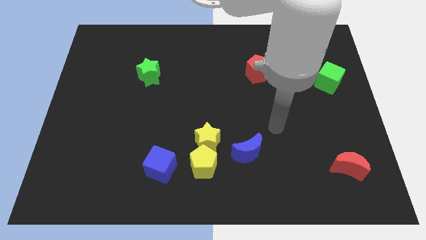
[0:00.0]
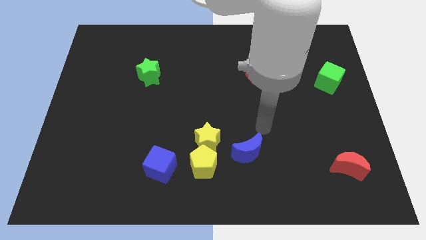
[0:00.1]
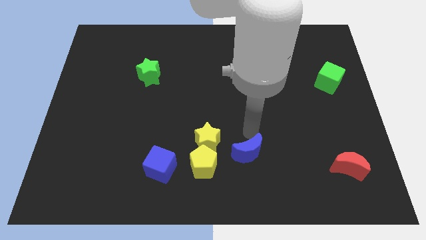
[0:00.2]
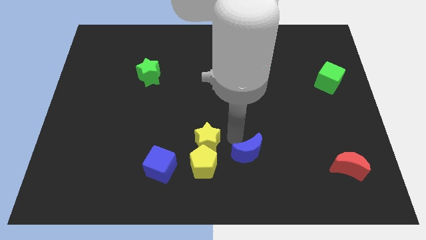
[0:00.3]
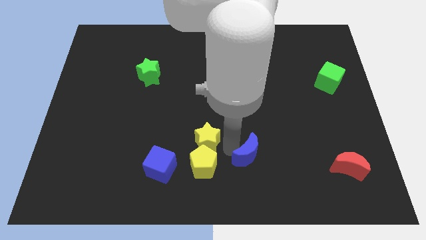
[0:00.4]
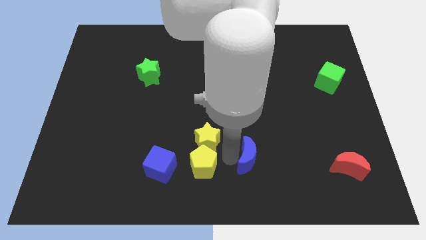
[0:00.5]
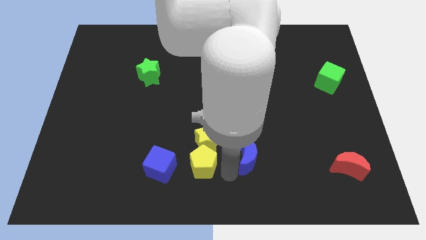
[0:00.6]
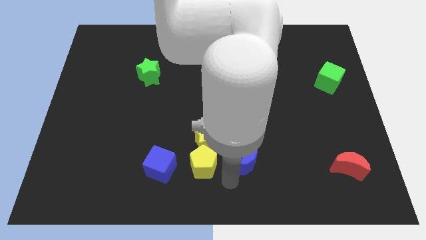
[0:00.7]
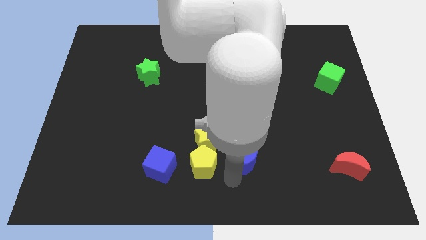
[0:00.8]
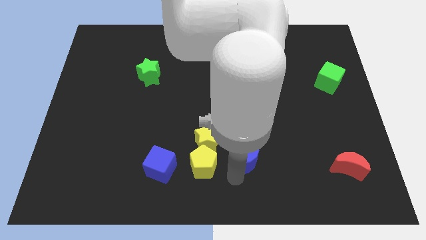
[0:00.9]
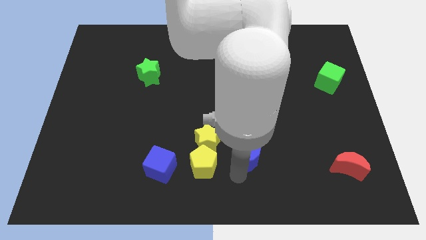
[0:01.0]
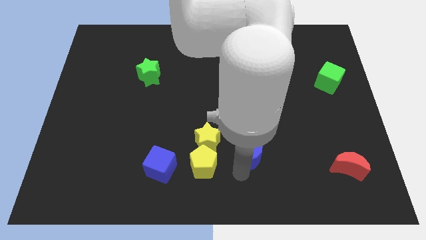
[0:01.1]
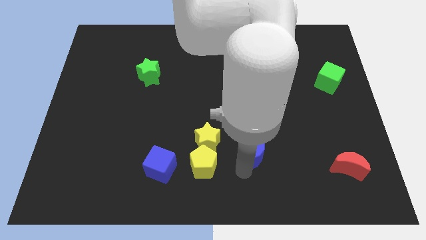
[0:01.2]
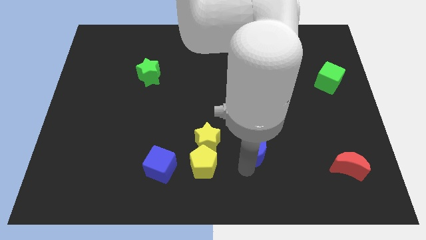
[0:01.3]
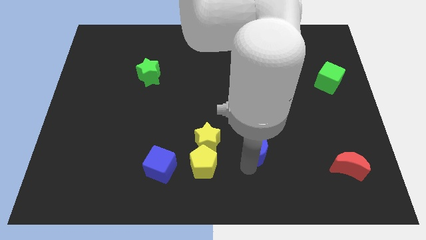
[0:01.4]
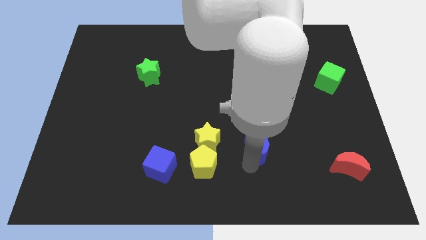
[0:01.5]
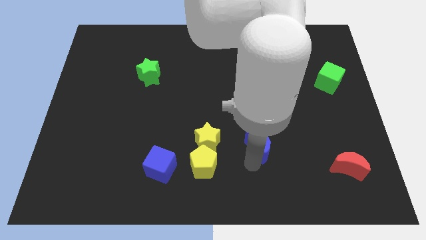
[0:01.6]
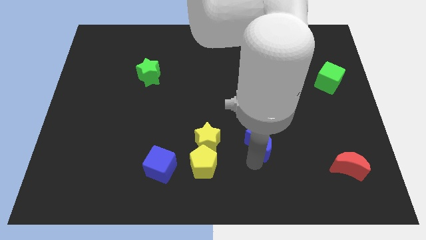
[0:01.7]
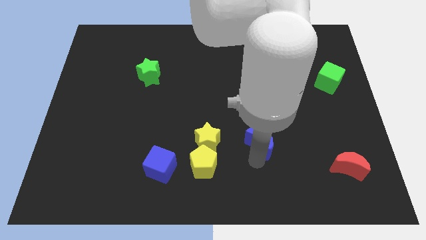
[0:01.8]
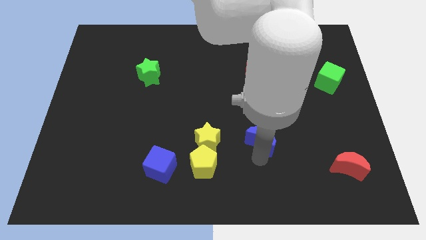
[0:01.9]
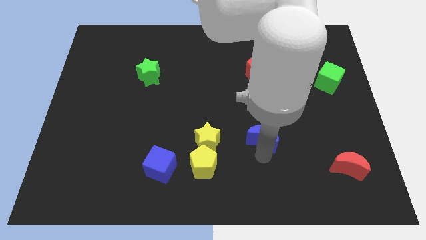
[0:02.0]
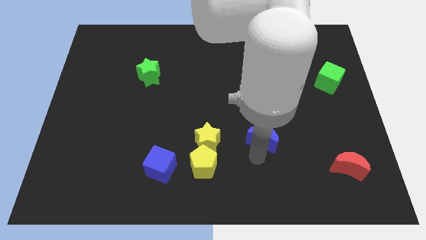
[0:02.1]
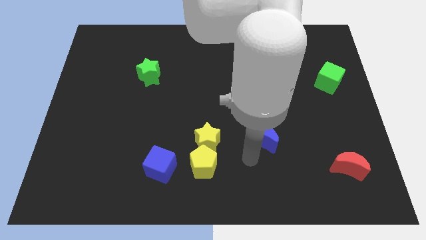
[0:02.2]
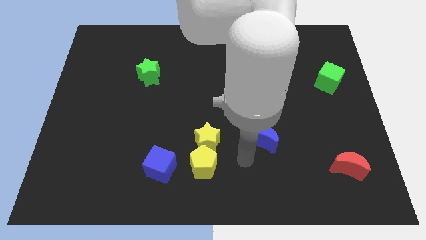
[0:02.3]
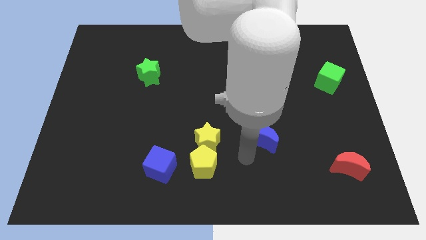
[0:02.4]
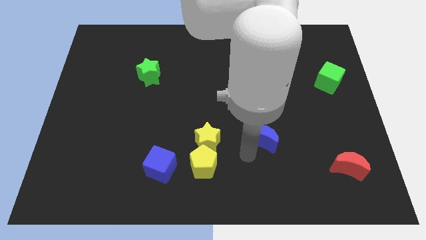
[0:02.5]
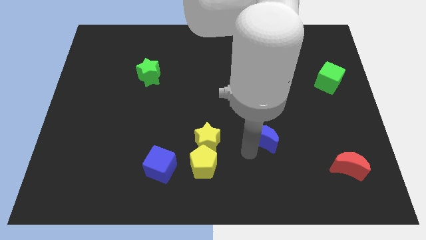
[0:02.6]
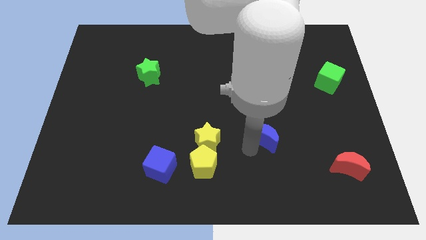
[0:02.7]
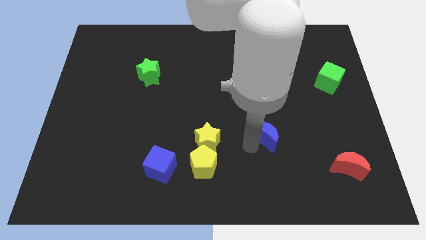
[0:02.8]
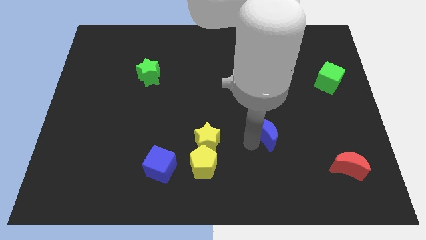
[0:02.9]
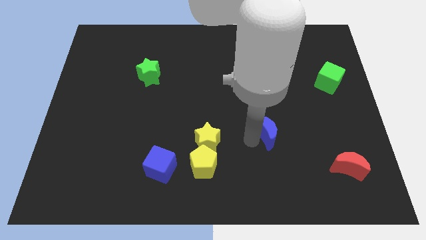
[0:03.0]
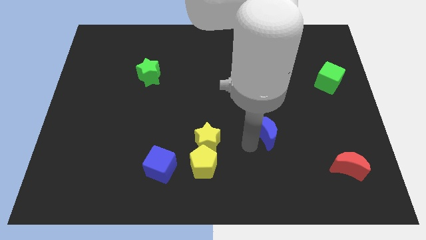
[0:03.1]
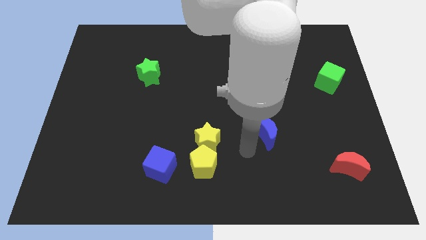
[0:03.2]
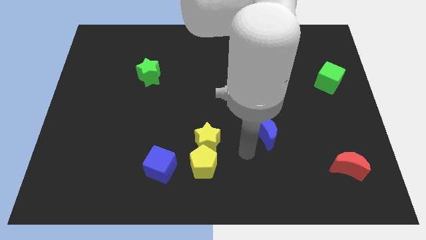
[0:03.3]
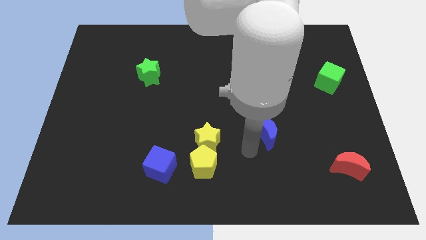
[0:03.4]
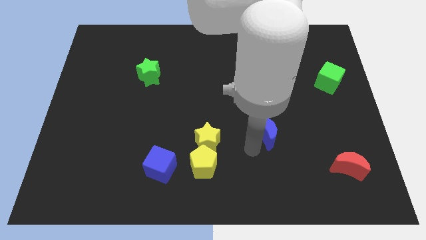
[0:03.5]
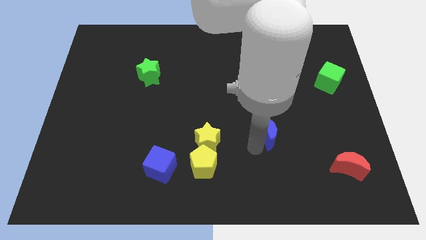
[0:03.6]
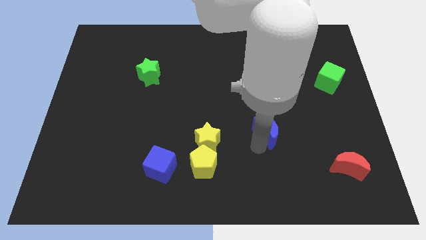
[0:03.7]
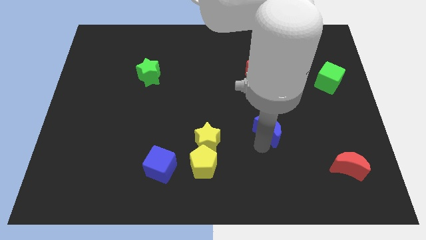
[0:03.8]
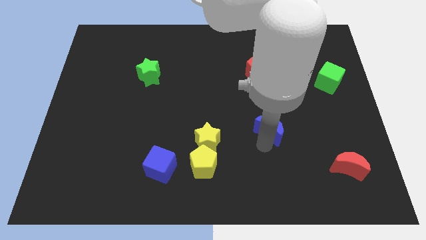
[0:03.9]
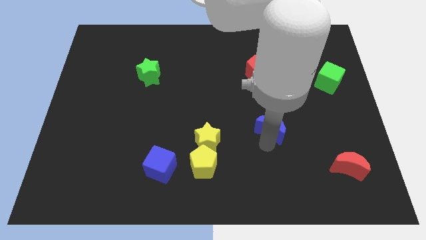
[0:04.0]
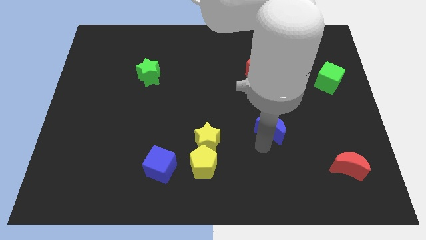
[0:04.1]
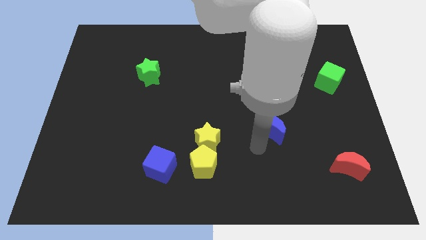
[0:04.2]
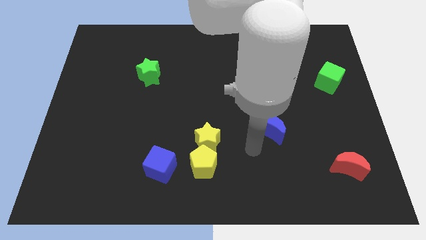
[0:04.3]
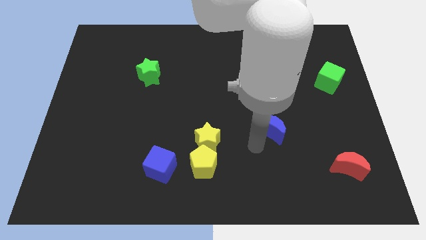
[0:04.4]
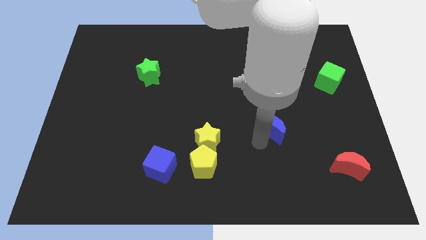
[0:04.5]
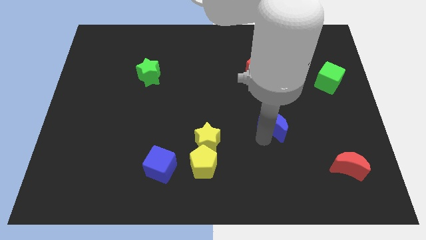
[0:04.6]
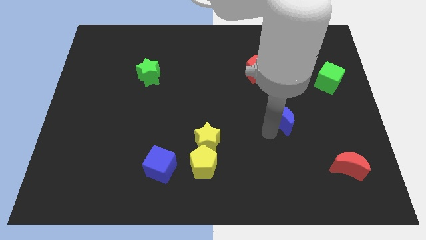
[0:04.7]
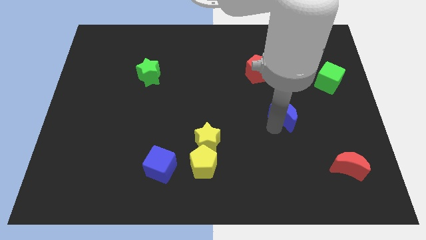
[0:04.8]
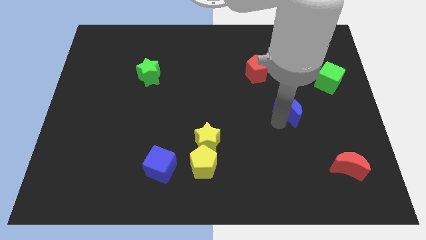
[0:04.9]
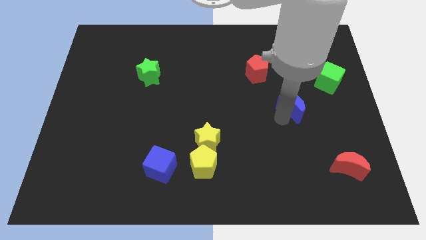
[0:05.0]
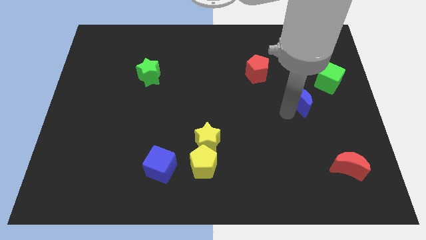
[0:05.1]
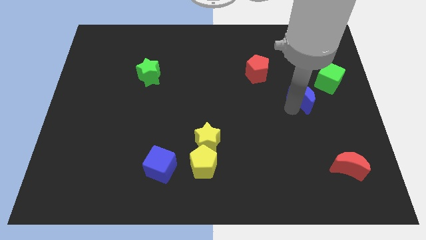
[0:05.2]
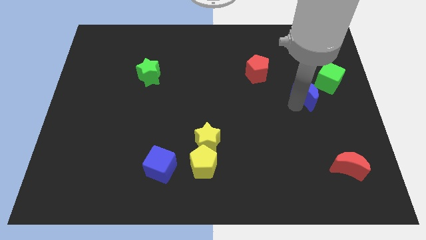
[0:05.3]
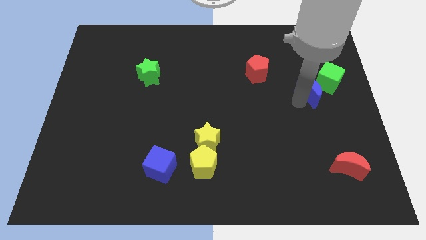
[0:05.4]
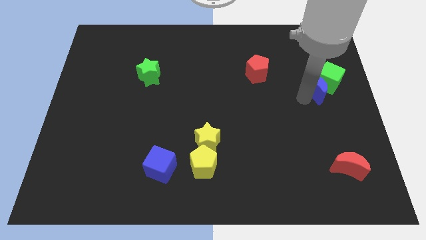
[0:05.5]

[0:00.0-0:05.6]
push the blue moon close to the green cube

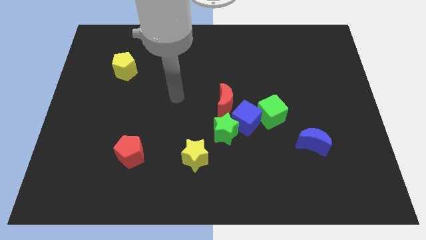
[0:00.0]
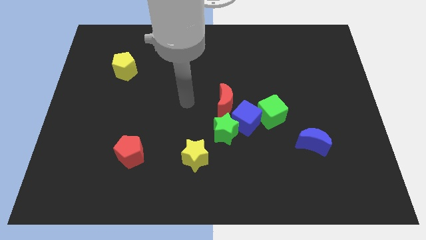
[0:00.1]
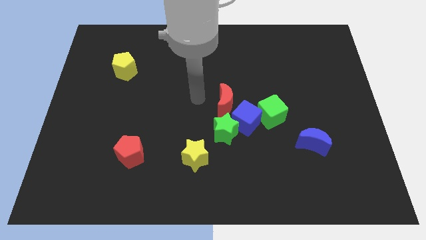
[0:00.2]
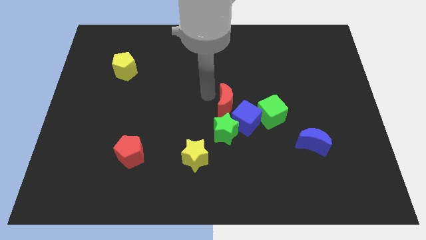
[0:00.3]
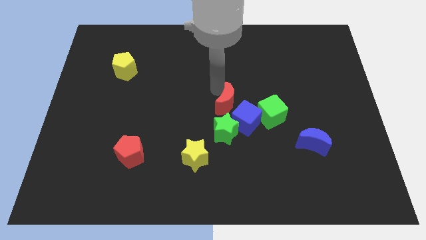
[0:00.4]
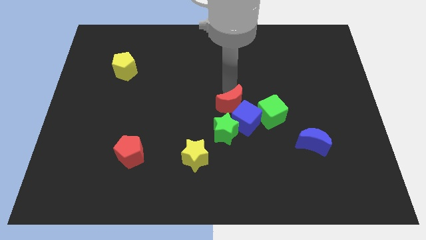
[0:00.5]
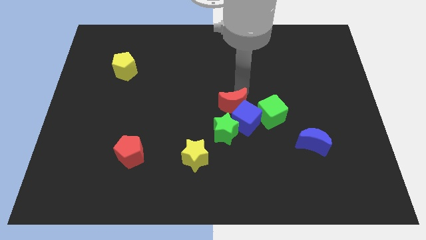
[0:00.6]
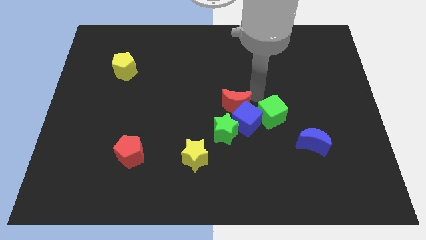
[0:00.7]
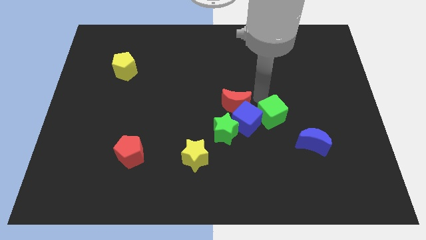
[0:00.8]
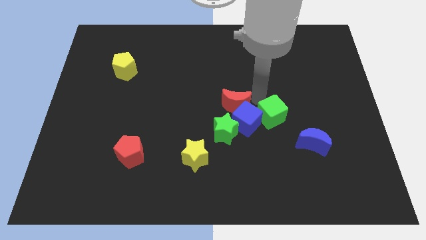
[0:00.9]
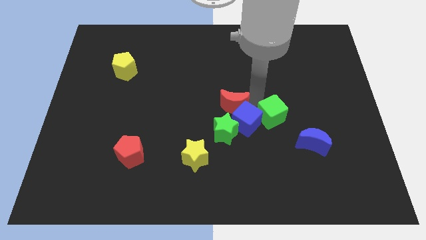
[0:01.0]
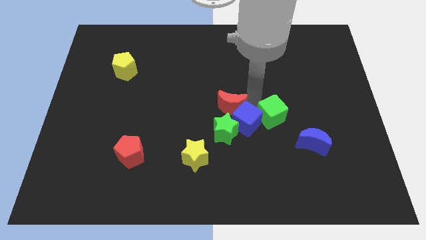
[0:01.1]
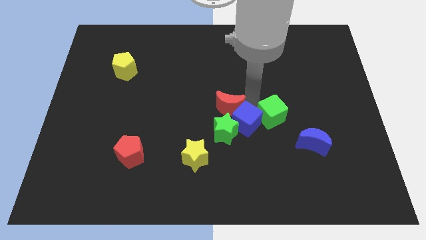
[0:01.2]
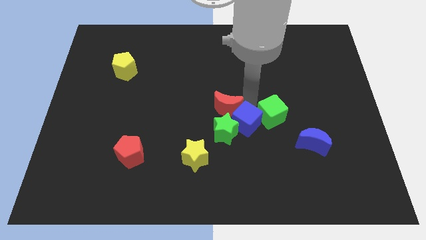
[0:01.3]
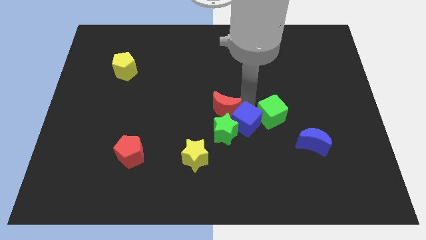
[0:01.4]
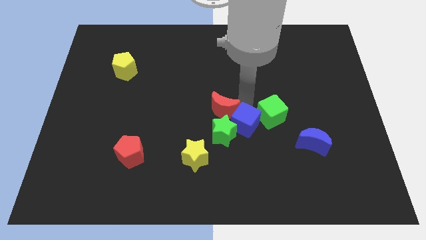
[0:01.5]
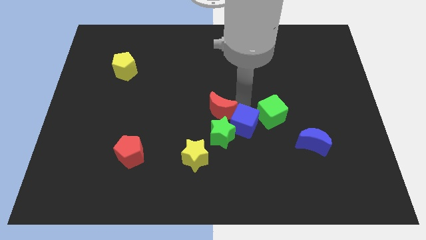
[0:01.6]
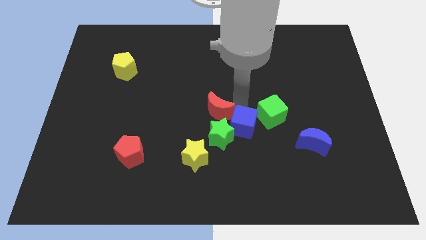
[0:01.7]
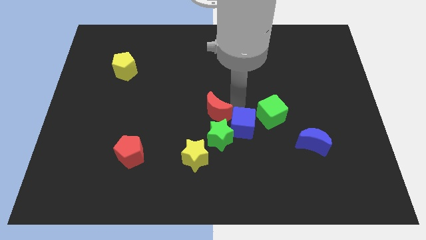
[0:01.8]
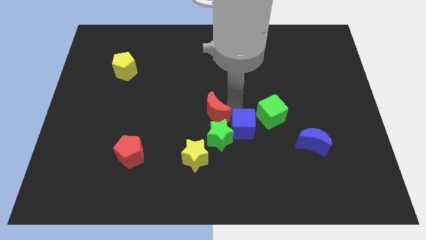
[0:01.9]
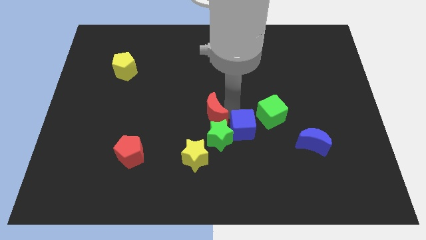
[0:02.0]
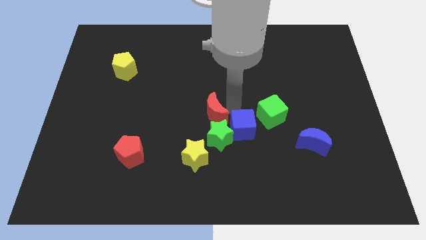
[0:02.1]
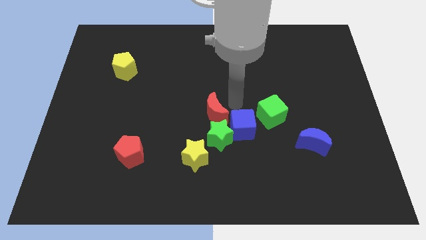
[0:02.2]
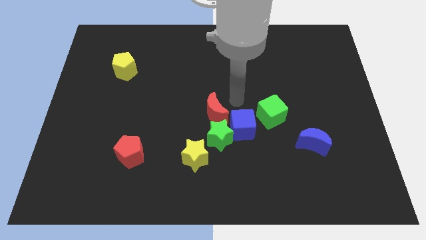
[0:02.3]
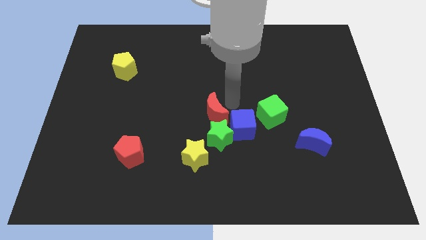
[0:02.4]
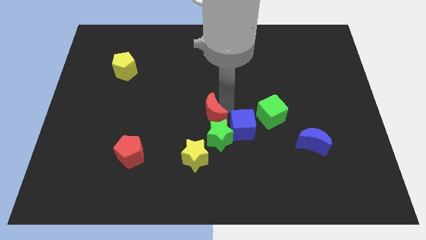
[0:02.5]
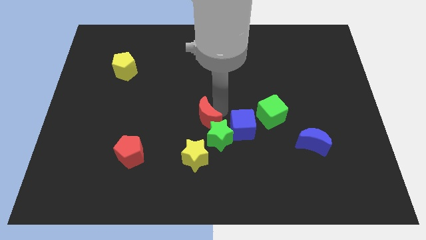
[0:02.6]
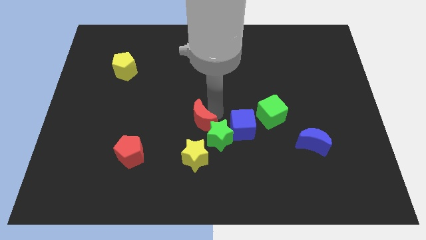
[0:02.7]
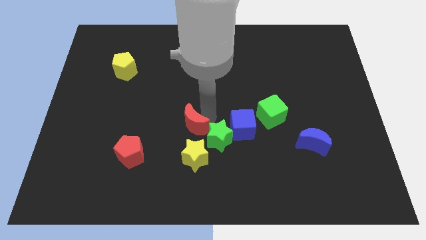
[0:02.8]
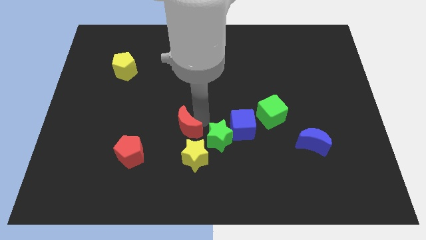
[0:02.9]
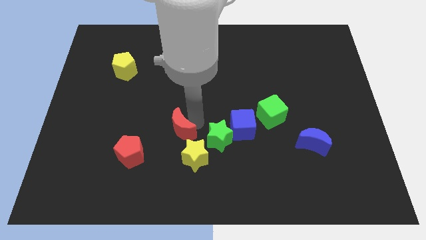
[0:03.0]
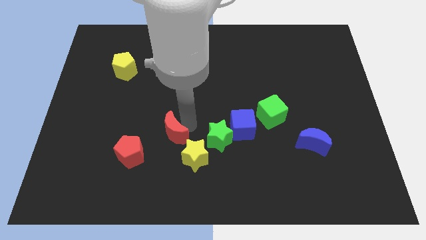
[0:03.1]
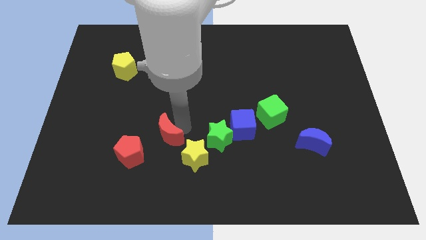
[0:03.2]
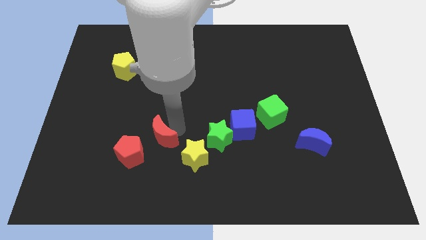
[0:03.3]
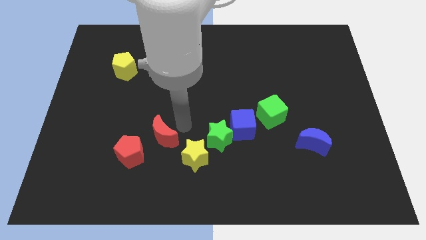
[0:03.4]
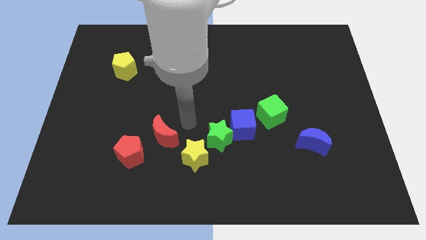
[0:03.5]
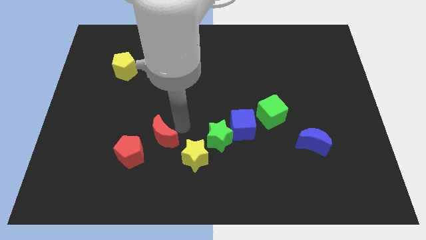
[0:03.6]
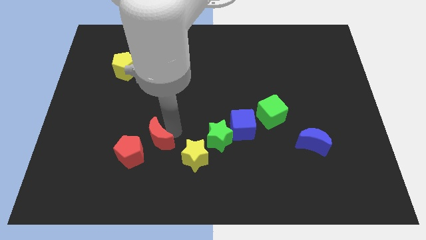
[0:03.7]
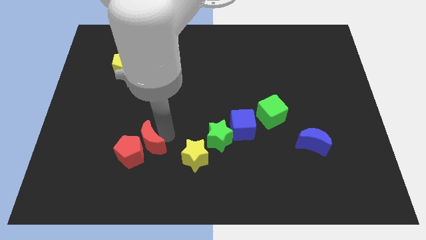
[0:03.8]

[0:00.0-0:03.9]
slide the red moon next to the red pentagon
